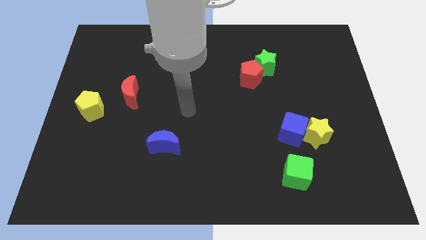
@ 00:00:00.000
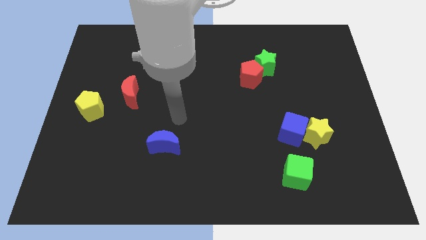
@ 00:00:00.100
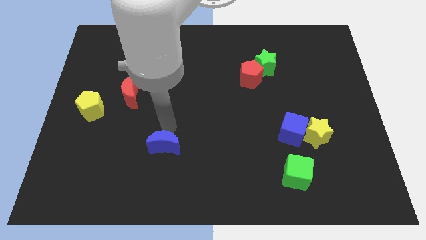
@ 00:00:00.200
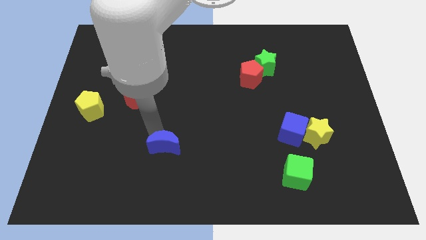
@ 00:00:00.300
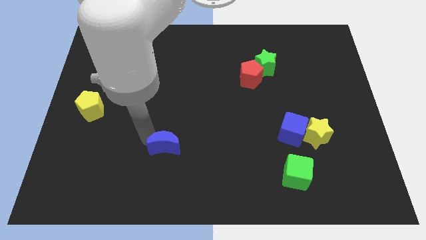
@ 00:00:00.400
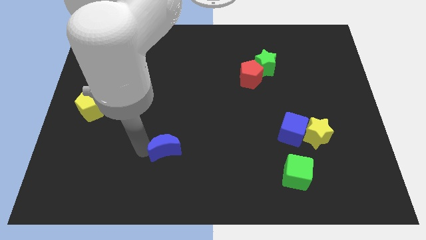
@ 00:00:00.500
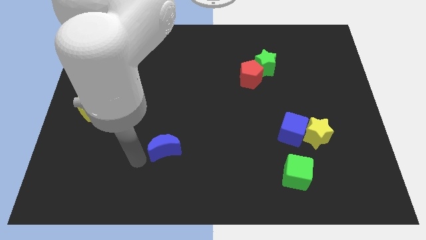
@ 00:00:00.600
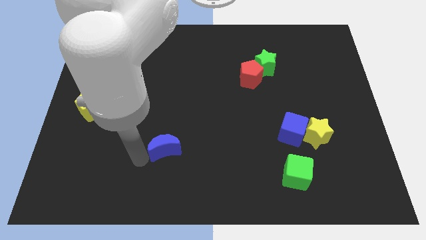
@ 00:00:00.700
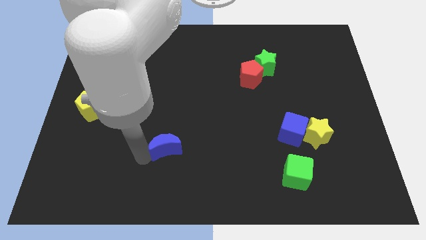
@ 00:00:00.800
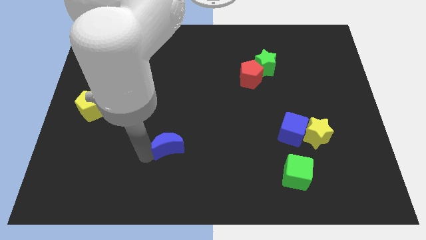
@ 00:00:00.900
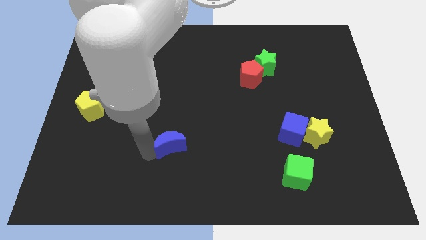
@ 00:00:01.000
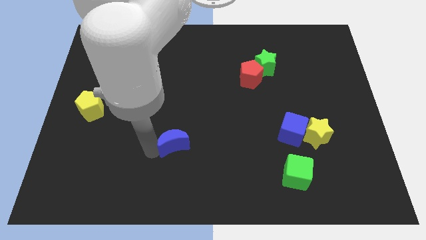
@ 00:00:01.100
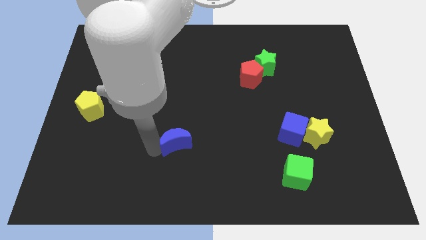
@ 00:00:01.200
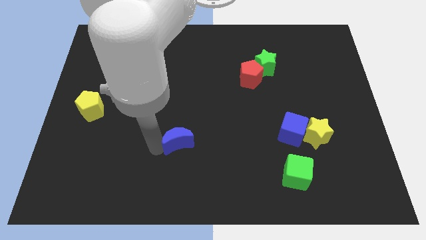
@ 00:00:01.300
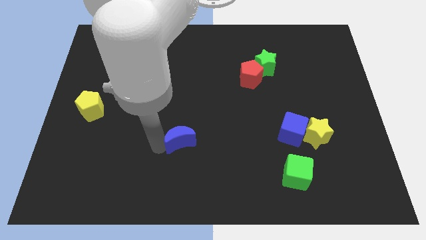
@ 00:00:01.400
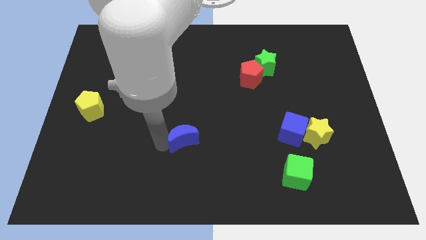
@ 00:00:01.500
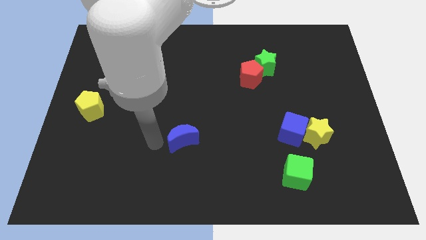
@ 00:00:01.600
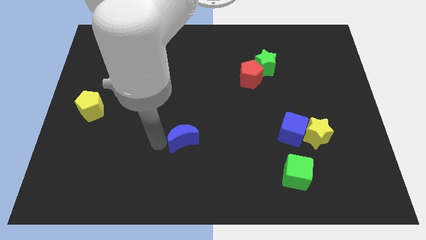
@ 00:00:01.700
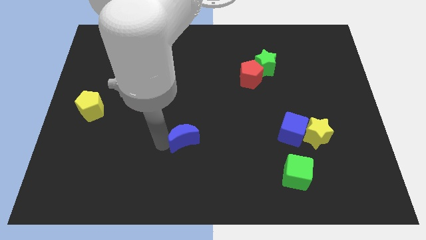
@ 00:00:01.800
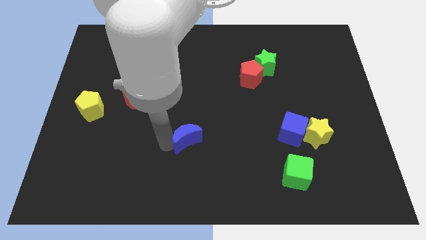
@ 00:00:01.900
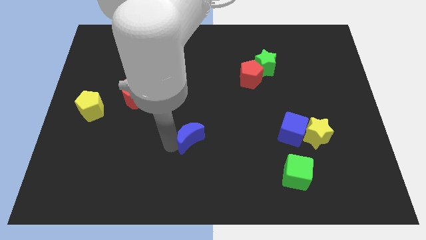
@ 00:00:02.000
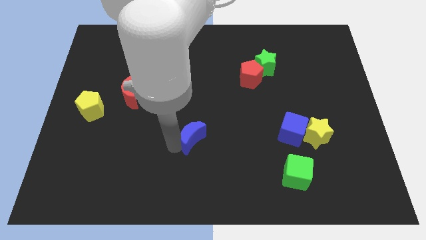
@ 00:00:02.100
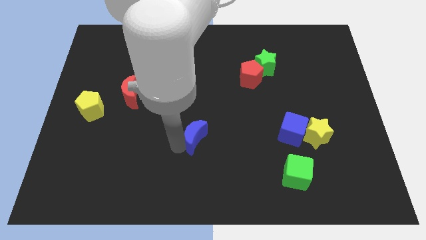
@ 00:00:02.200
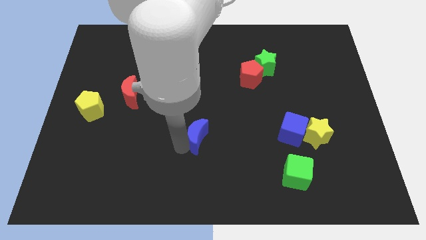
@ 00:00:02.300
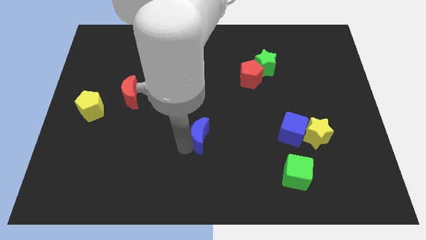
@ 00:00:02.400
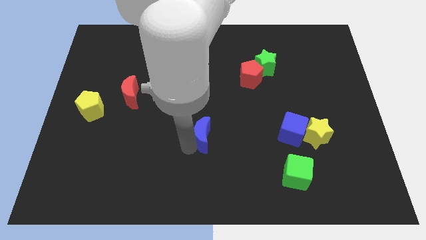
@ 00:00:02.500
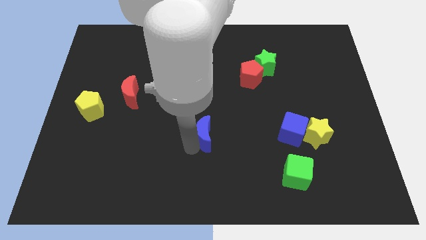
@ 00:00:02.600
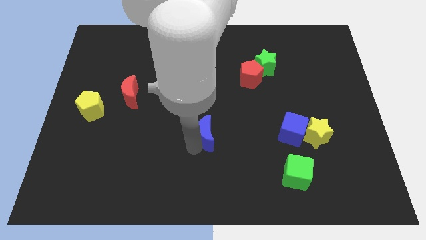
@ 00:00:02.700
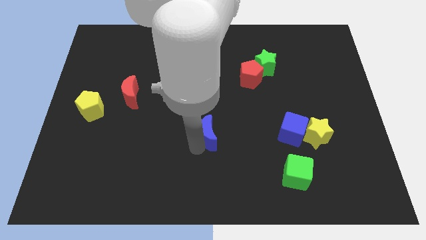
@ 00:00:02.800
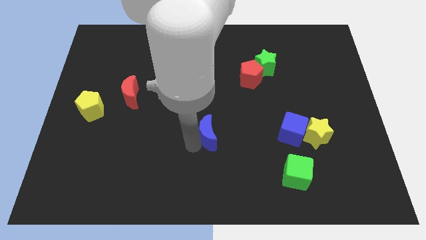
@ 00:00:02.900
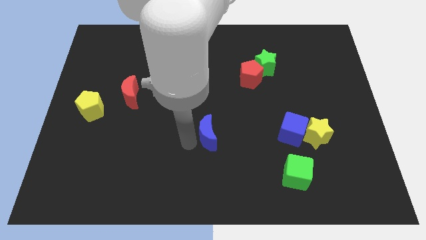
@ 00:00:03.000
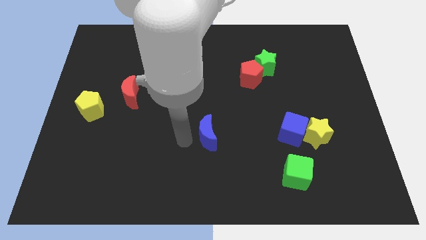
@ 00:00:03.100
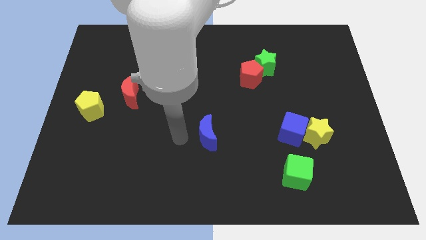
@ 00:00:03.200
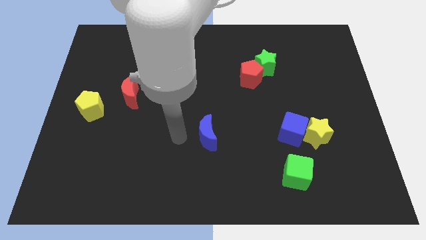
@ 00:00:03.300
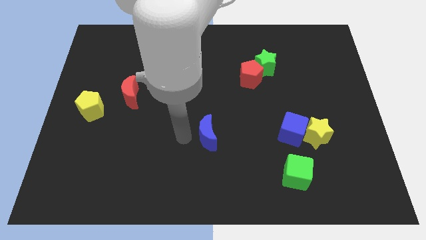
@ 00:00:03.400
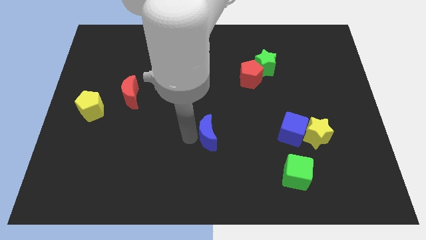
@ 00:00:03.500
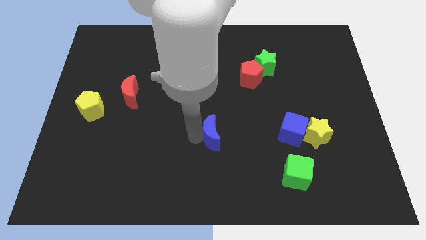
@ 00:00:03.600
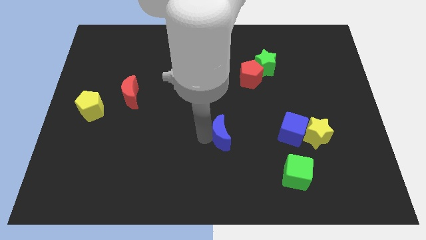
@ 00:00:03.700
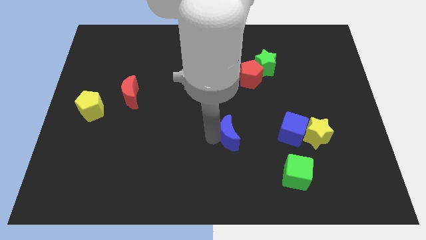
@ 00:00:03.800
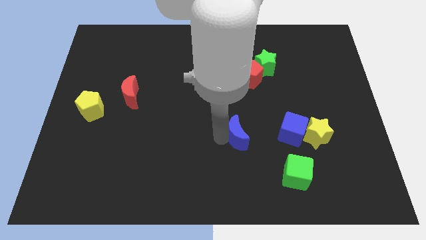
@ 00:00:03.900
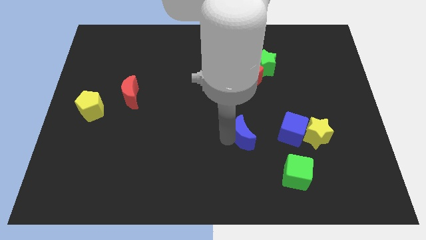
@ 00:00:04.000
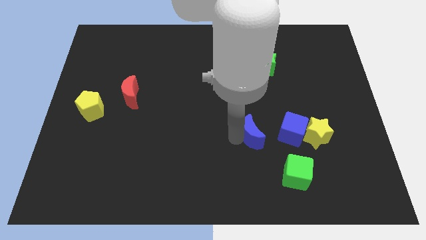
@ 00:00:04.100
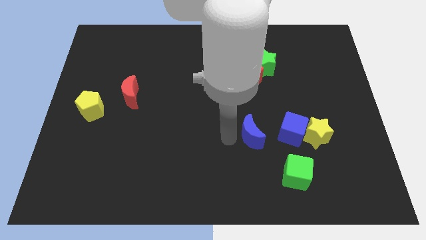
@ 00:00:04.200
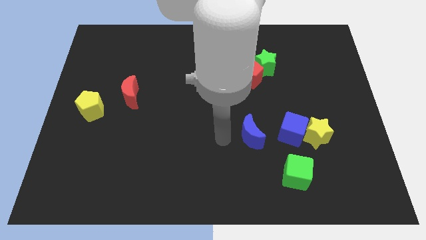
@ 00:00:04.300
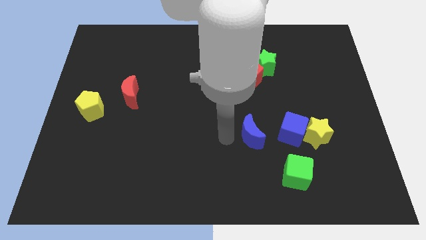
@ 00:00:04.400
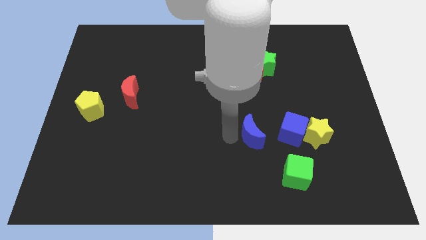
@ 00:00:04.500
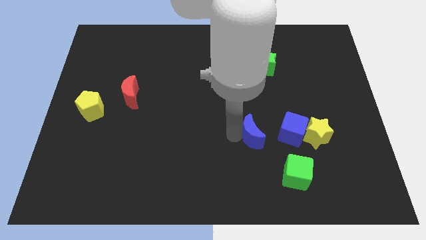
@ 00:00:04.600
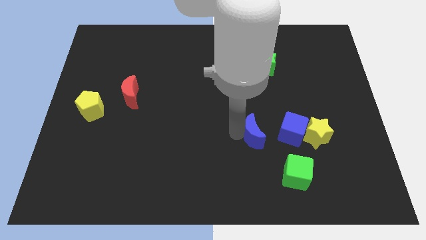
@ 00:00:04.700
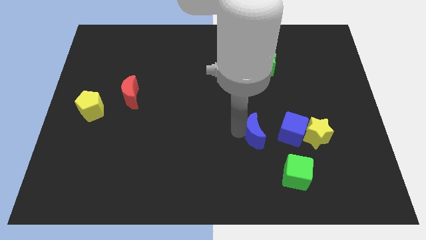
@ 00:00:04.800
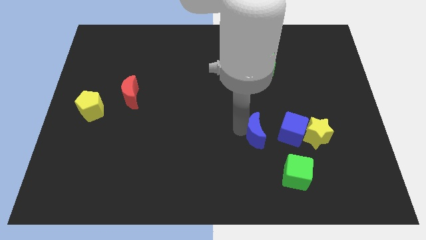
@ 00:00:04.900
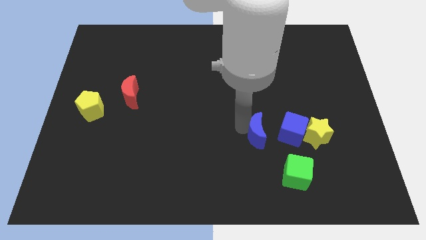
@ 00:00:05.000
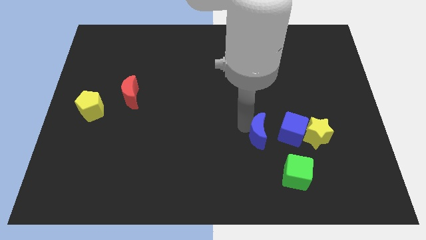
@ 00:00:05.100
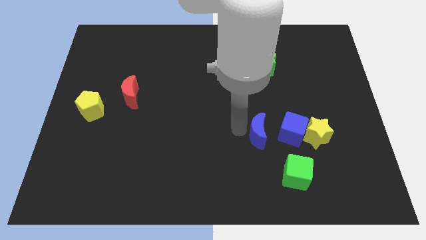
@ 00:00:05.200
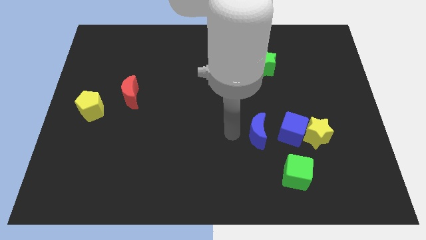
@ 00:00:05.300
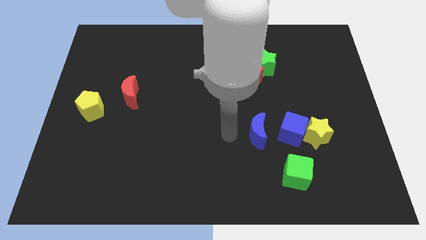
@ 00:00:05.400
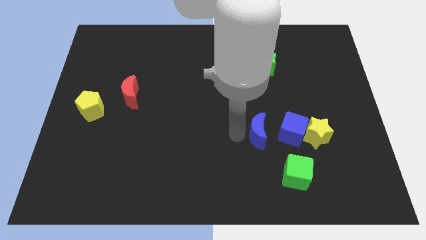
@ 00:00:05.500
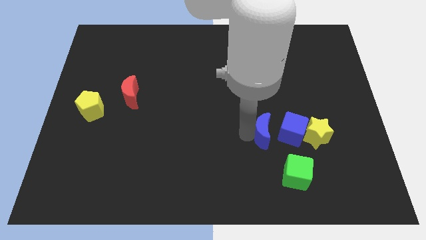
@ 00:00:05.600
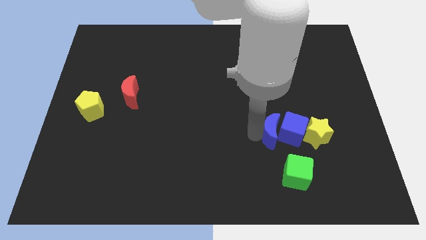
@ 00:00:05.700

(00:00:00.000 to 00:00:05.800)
move the blue moon to the blue cube

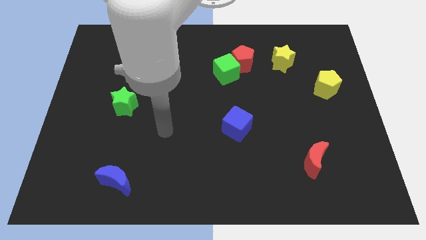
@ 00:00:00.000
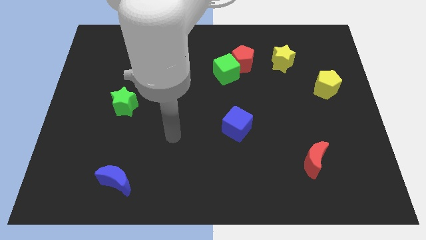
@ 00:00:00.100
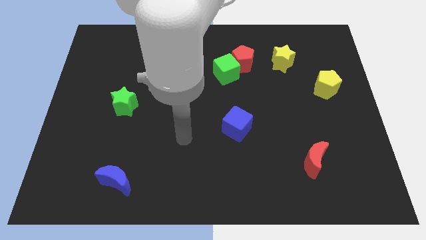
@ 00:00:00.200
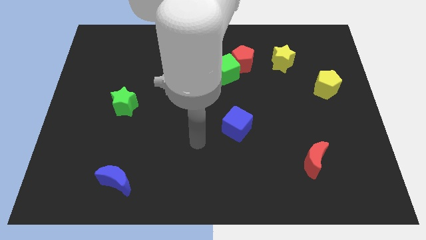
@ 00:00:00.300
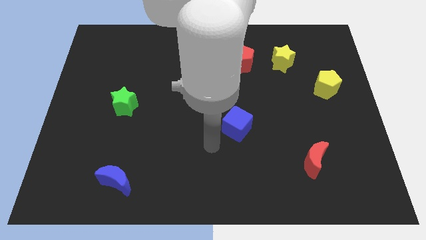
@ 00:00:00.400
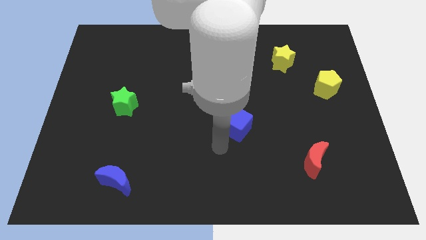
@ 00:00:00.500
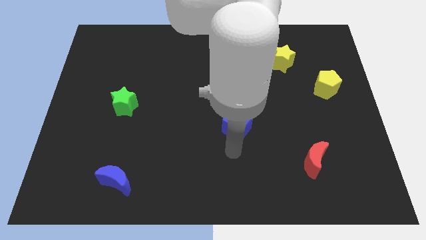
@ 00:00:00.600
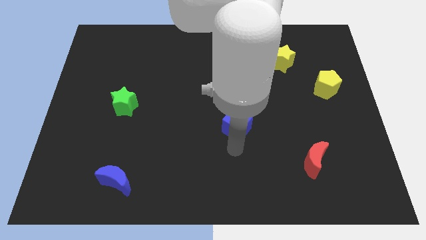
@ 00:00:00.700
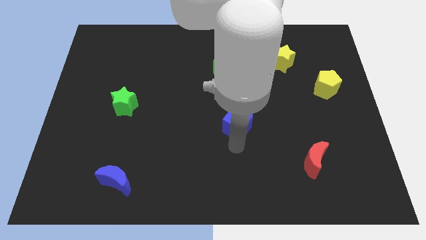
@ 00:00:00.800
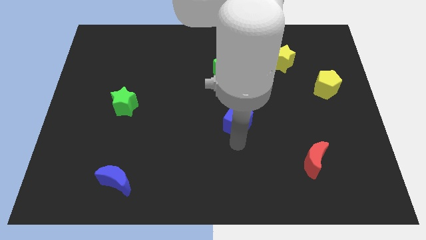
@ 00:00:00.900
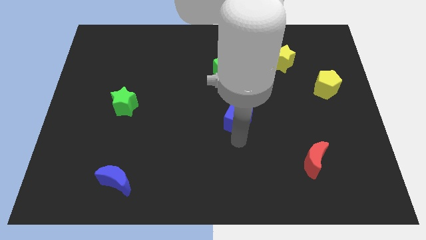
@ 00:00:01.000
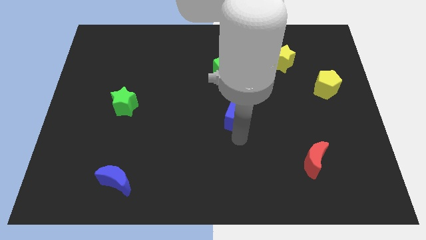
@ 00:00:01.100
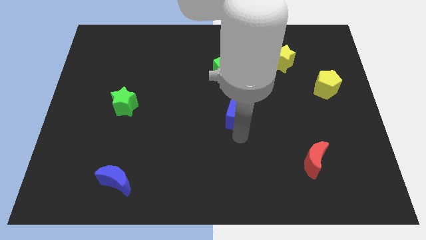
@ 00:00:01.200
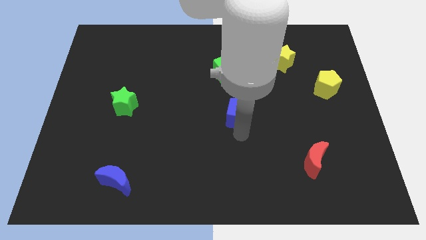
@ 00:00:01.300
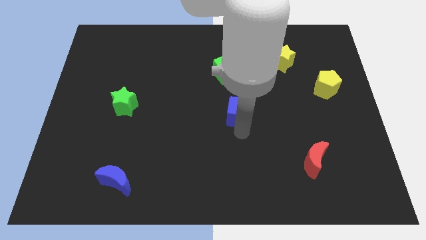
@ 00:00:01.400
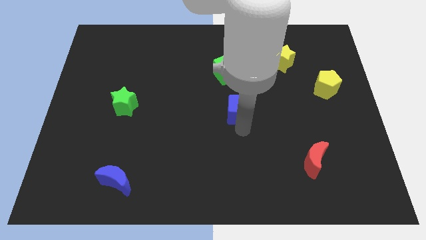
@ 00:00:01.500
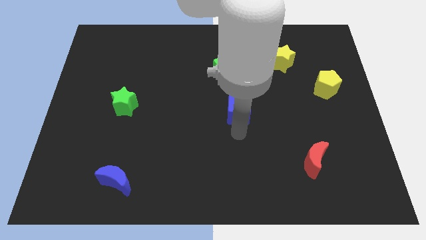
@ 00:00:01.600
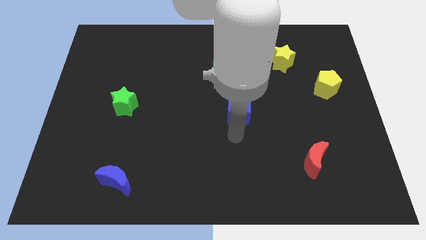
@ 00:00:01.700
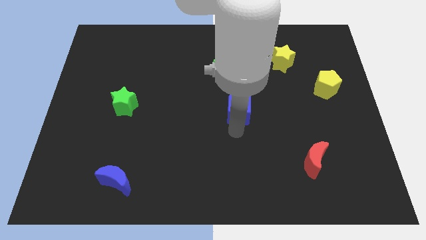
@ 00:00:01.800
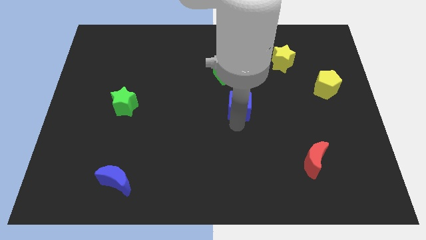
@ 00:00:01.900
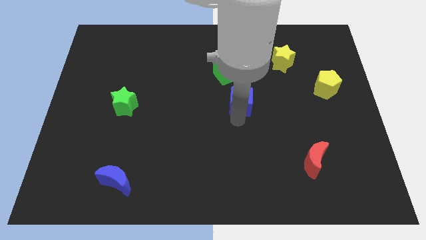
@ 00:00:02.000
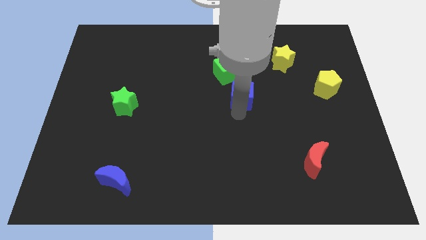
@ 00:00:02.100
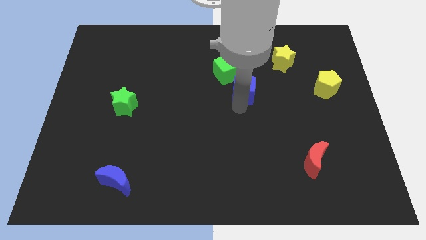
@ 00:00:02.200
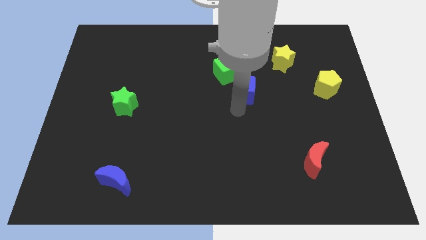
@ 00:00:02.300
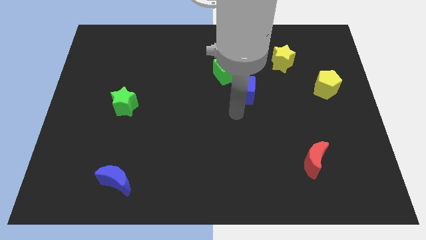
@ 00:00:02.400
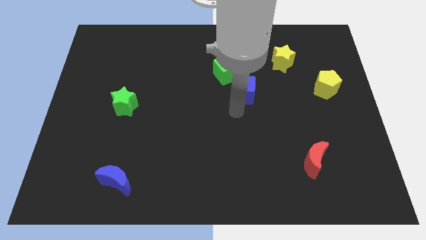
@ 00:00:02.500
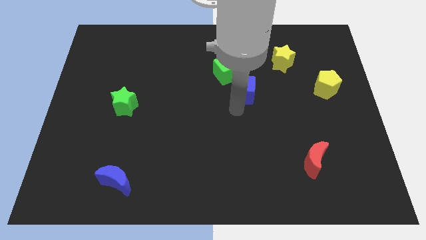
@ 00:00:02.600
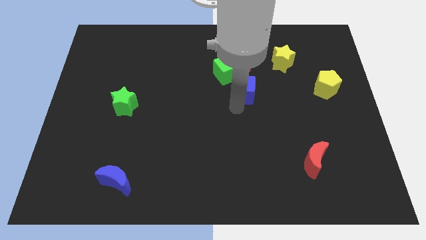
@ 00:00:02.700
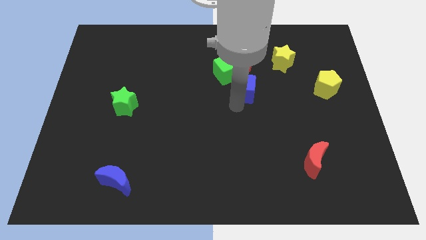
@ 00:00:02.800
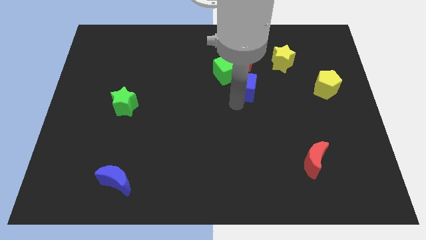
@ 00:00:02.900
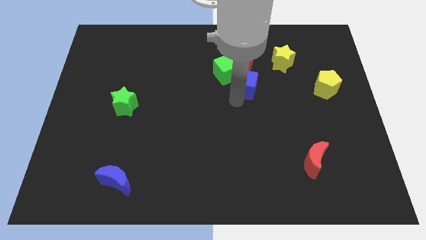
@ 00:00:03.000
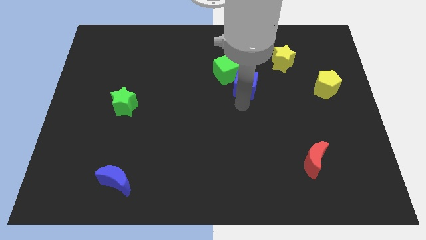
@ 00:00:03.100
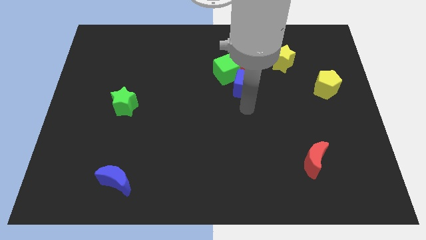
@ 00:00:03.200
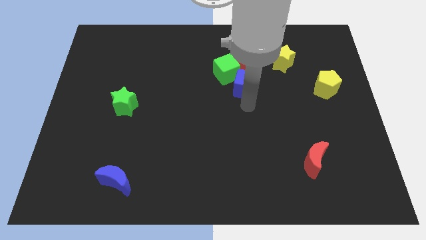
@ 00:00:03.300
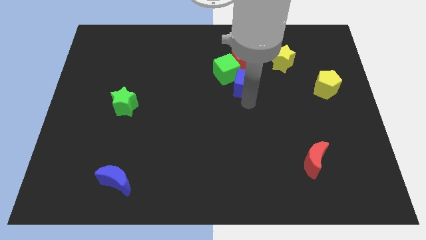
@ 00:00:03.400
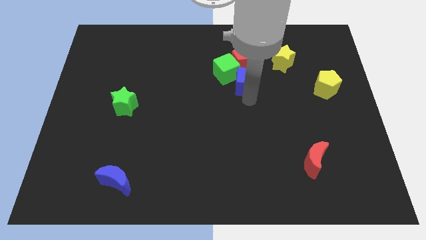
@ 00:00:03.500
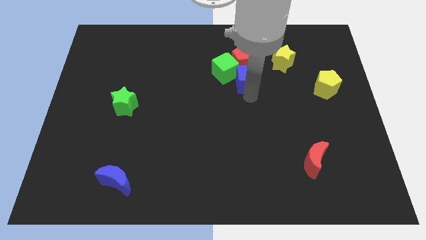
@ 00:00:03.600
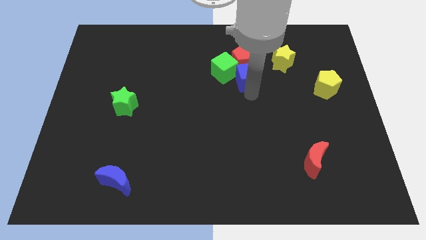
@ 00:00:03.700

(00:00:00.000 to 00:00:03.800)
move the blue cube towards the red pentagon
